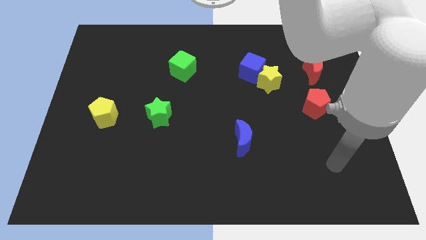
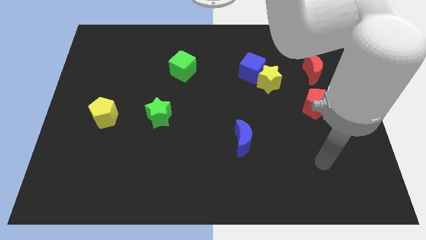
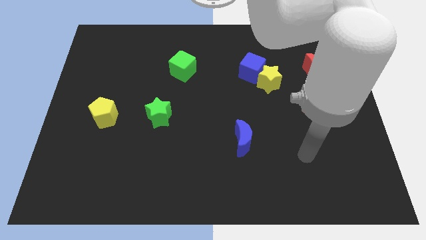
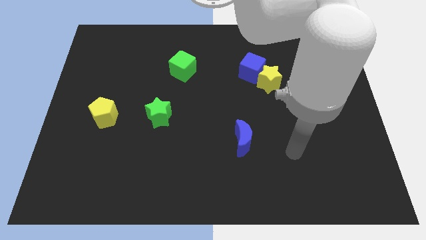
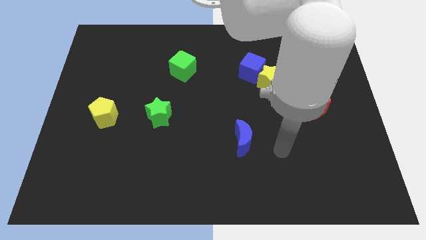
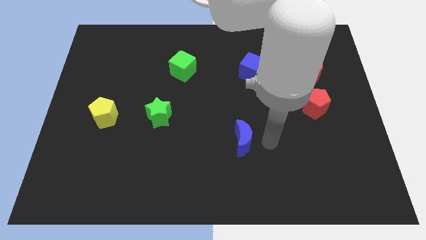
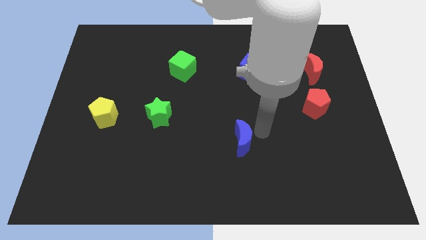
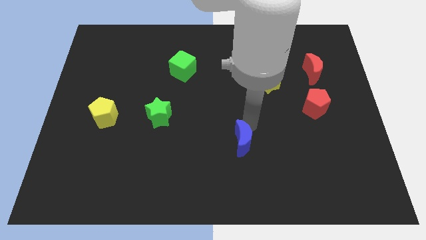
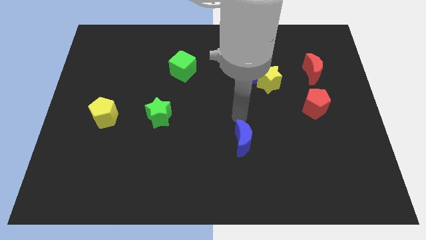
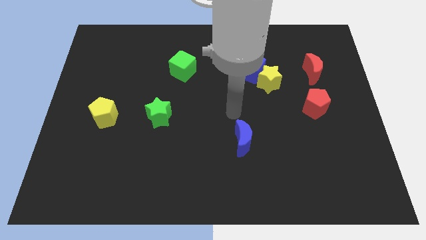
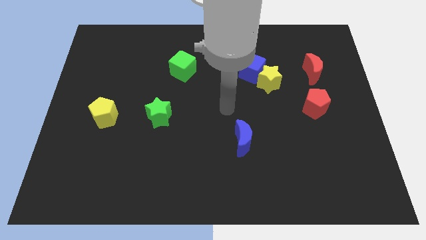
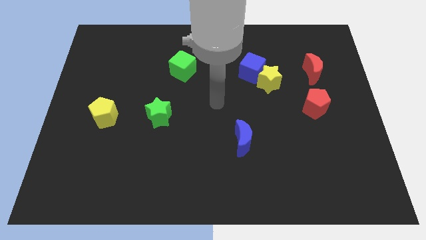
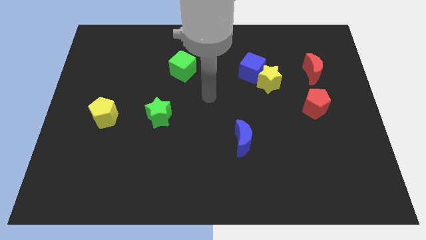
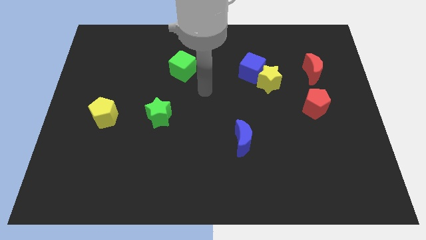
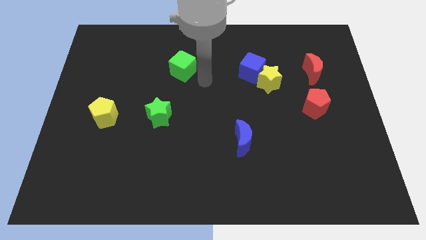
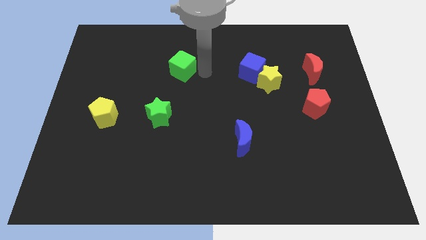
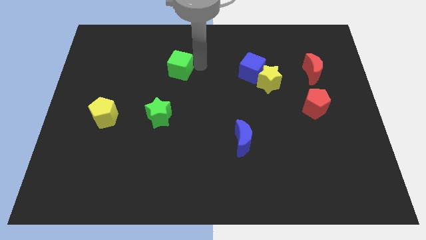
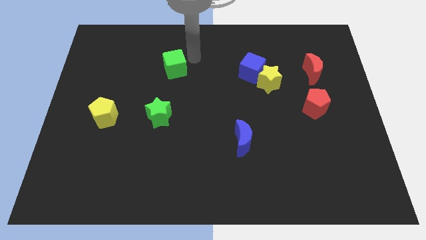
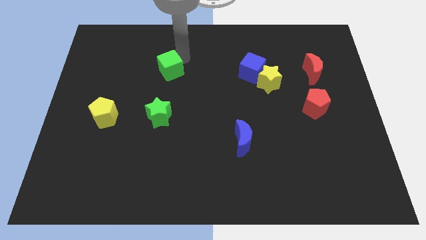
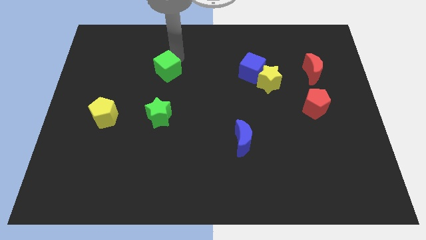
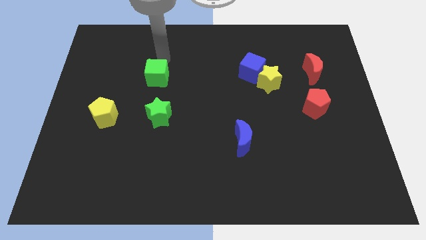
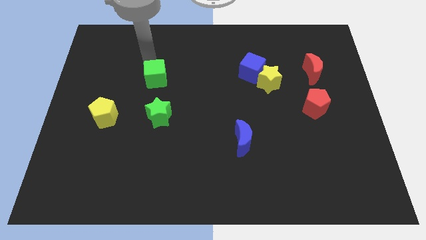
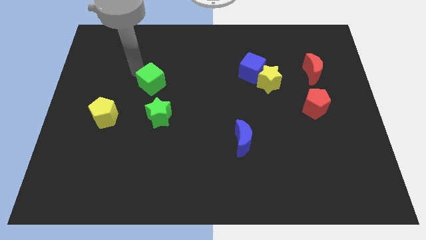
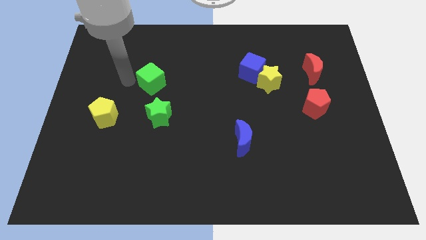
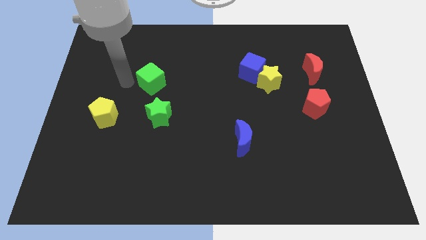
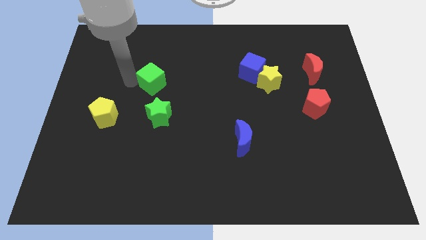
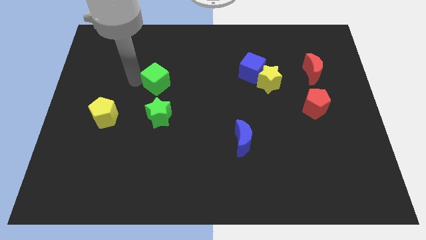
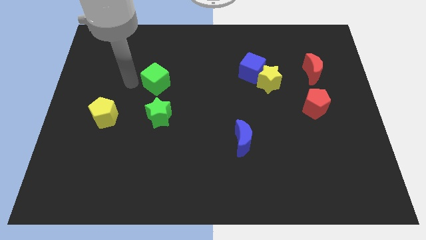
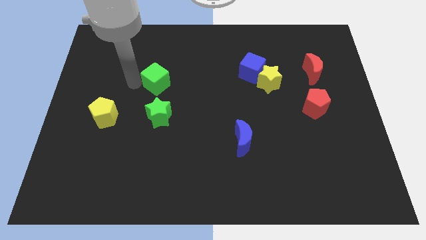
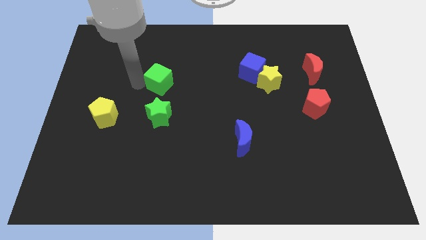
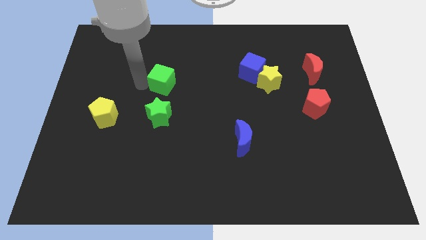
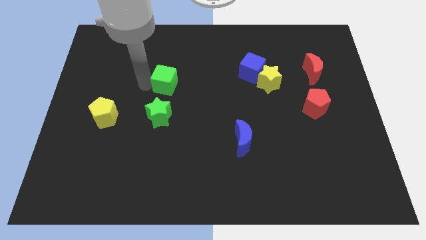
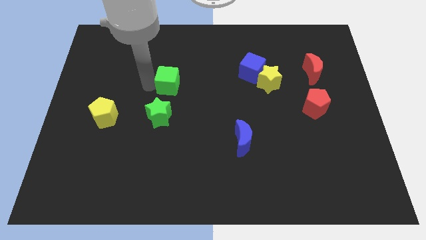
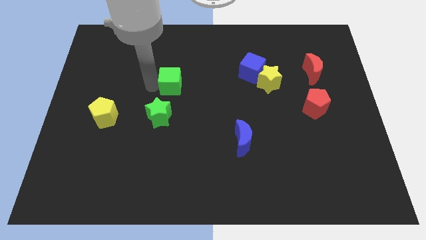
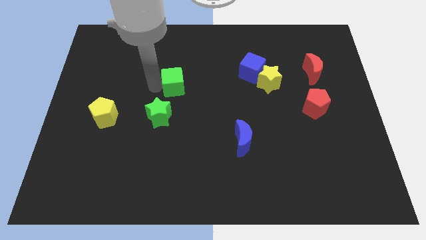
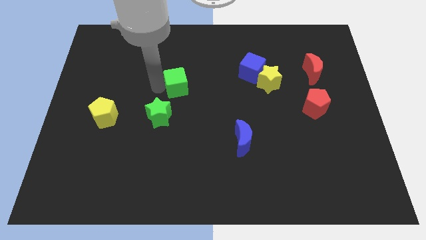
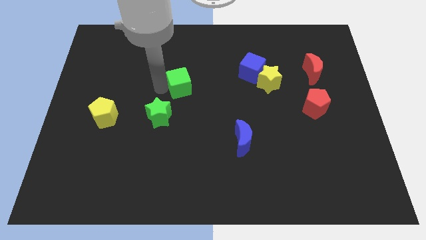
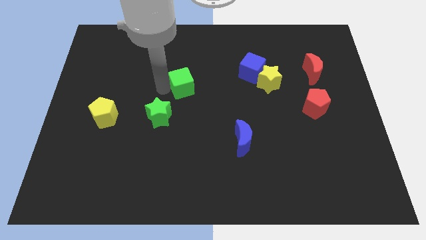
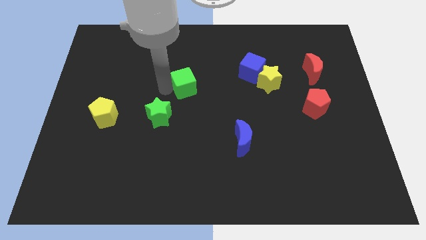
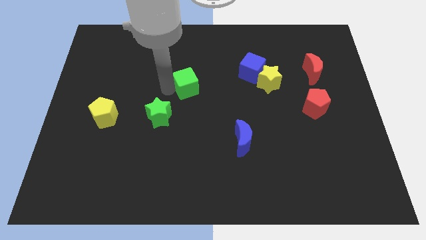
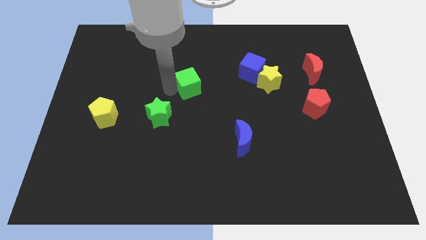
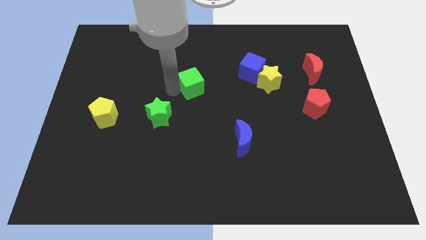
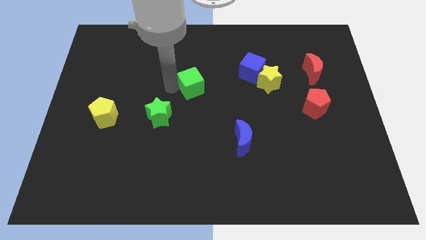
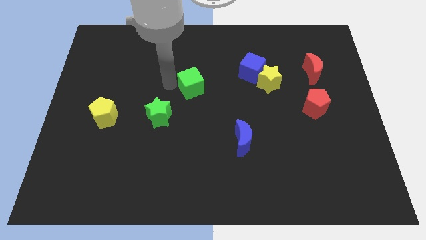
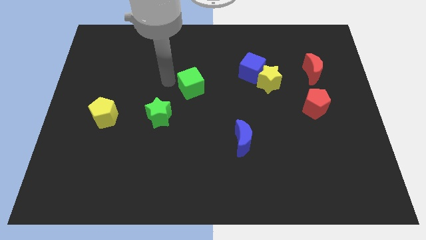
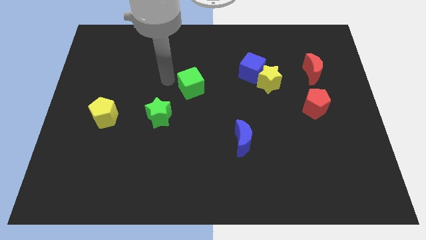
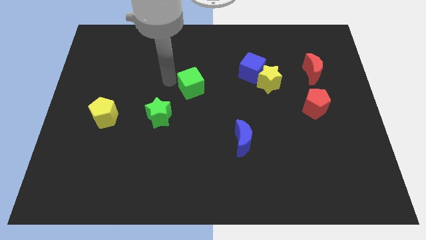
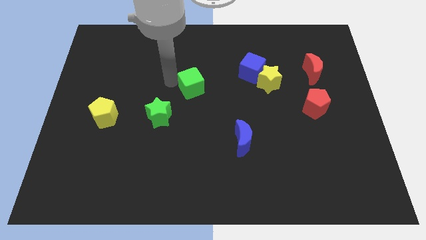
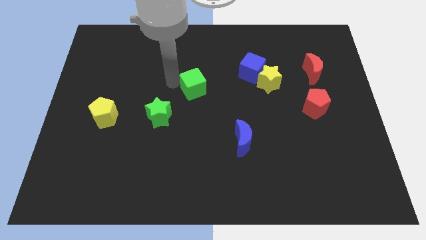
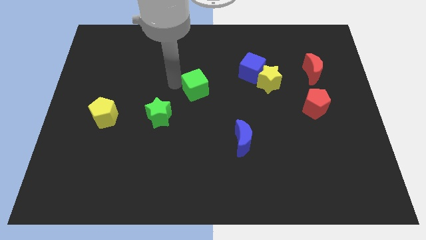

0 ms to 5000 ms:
move the green cube downwards and right a little bit

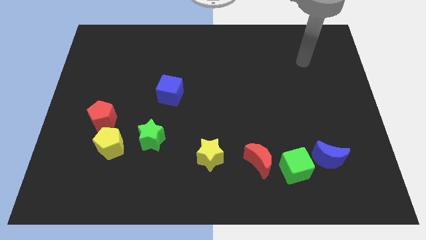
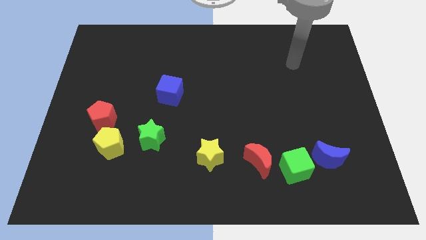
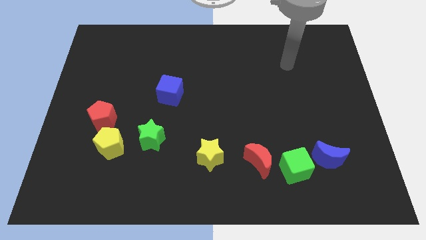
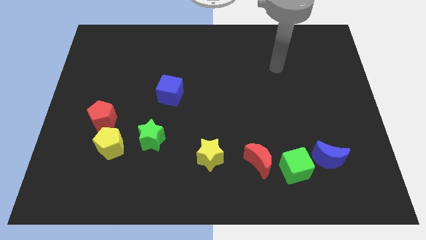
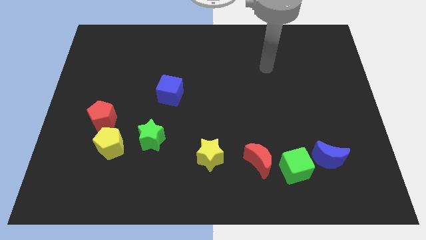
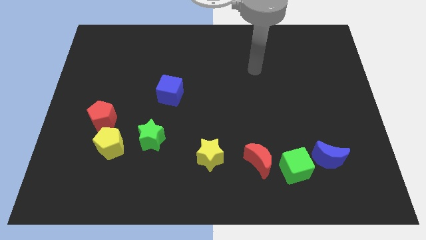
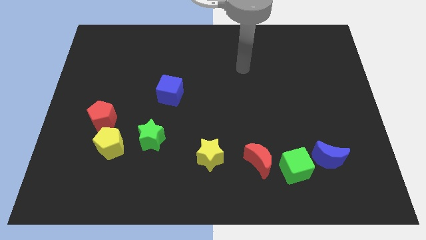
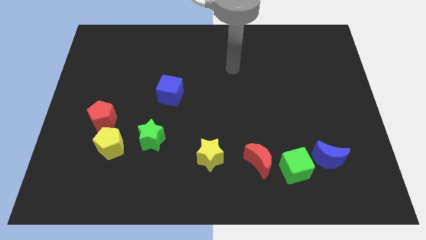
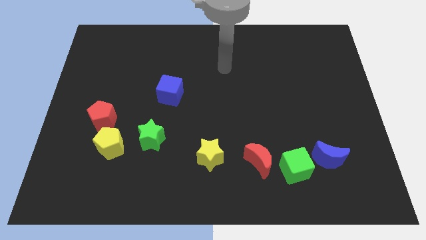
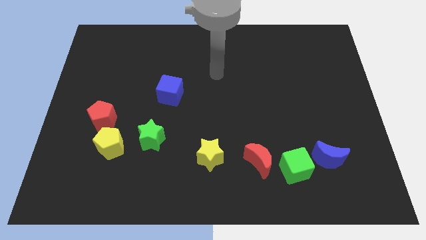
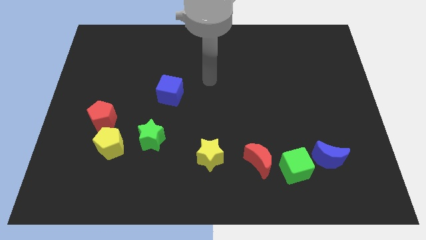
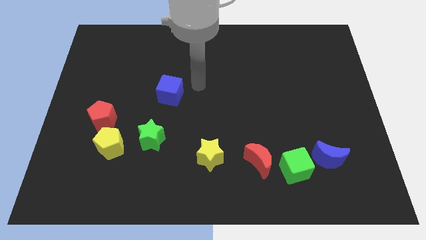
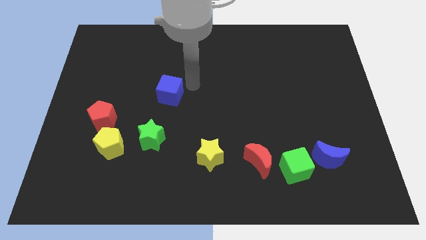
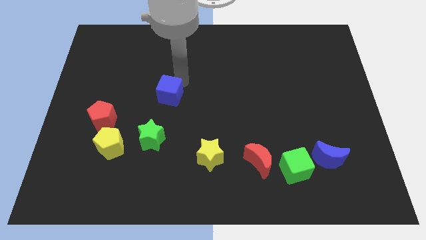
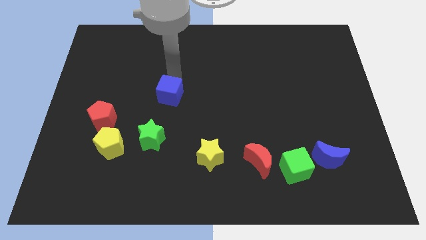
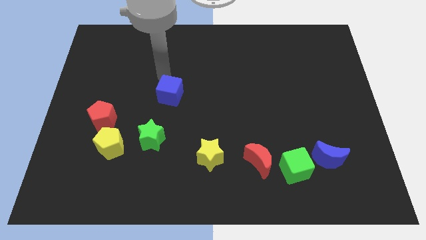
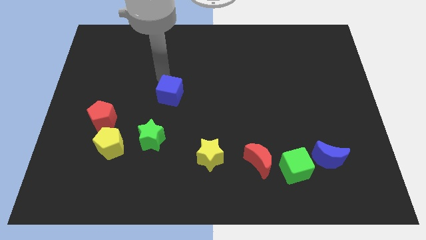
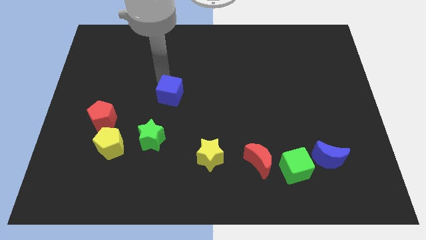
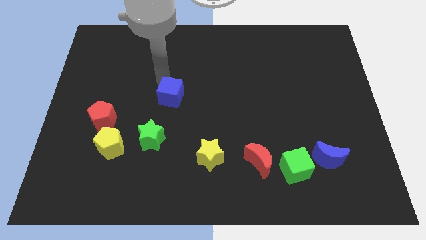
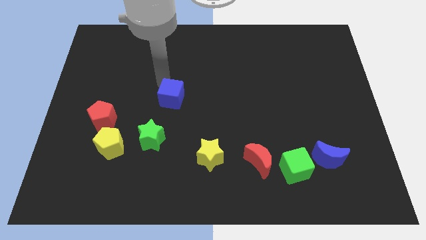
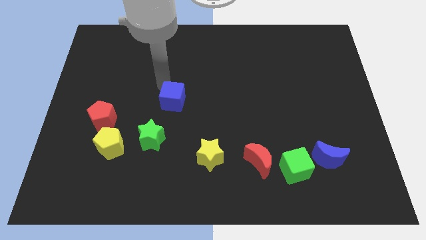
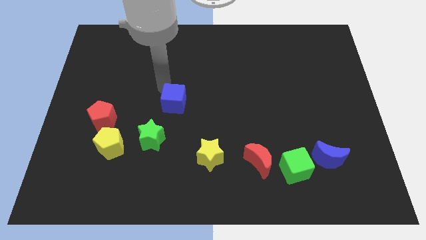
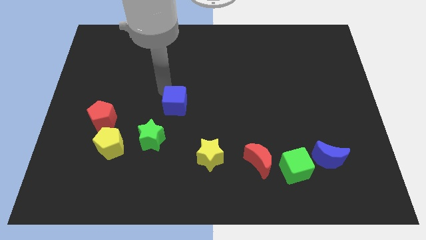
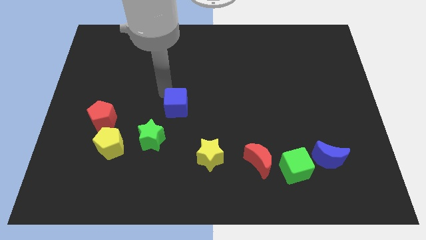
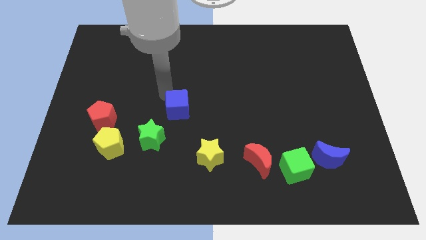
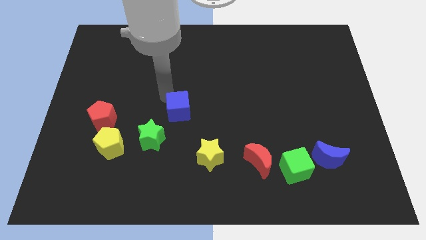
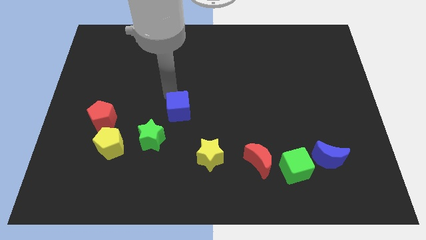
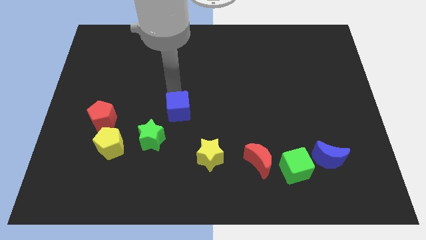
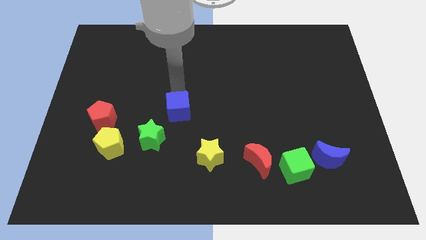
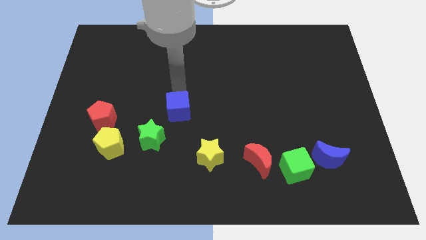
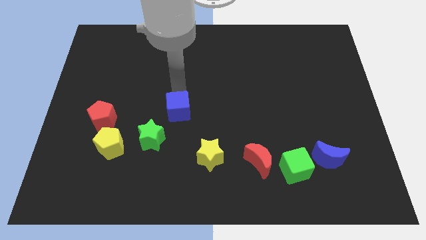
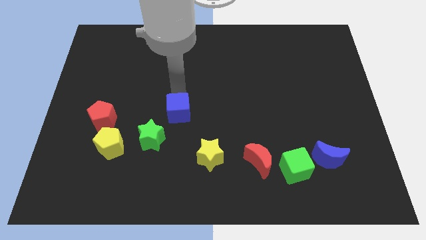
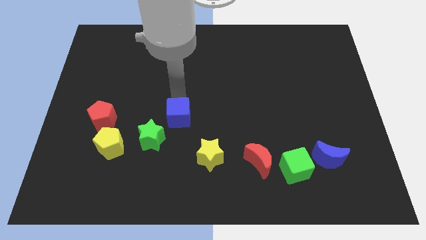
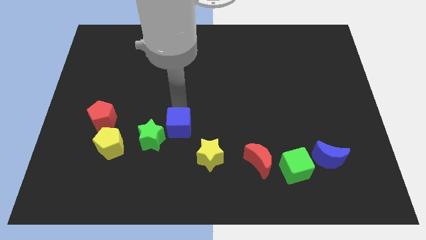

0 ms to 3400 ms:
slide the blue cube downwards slightly
